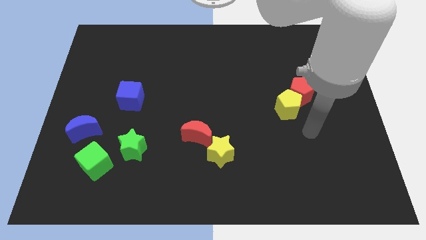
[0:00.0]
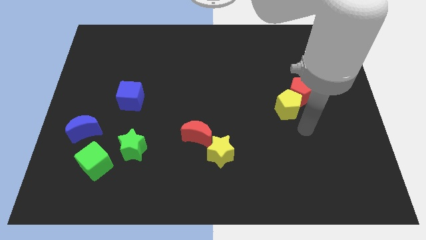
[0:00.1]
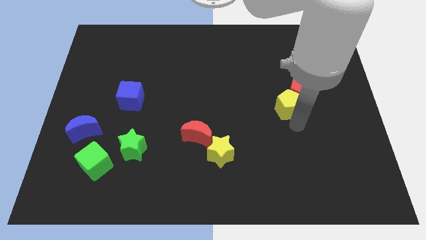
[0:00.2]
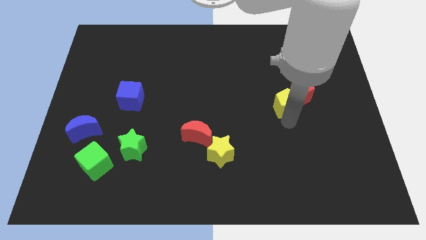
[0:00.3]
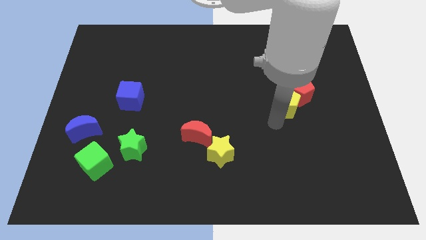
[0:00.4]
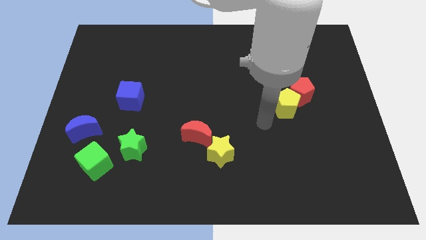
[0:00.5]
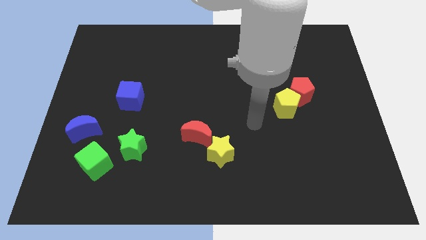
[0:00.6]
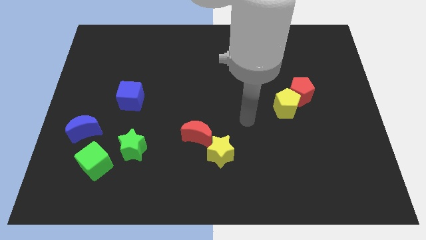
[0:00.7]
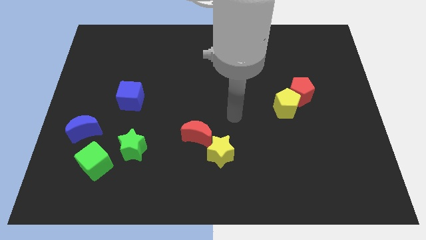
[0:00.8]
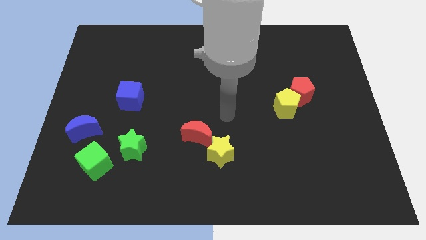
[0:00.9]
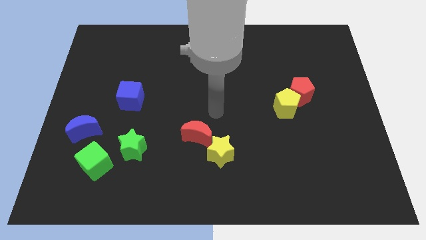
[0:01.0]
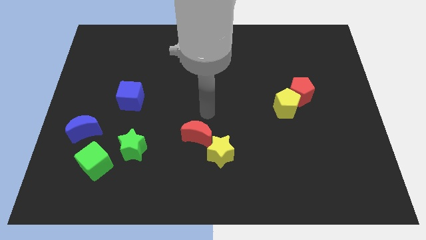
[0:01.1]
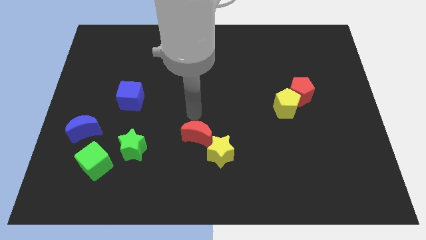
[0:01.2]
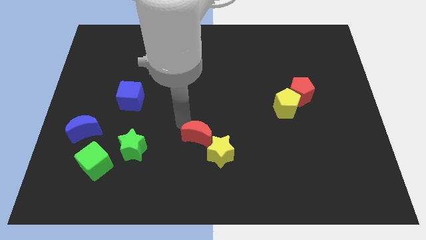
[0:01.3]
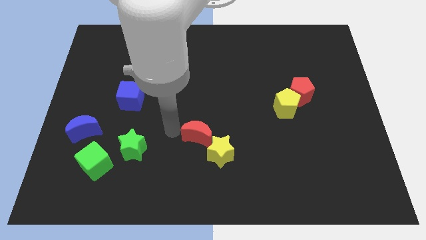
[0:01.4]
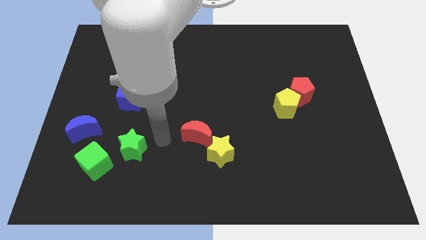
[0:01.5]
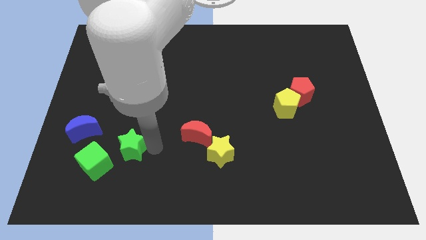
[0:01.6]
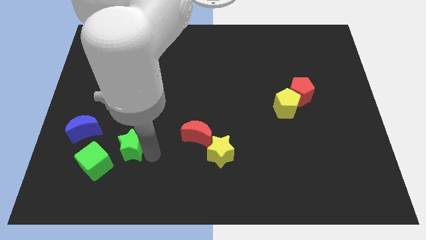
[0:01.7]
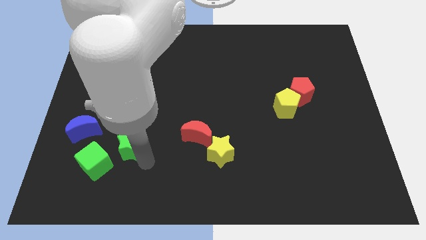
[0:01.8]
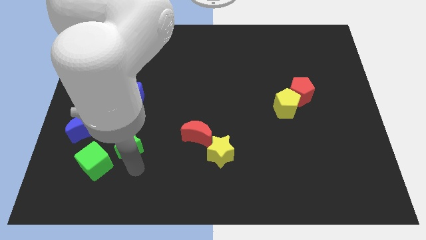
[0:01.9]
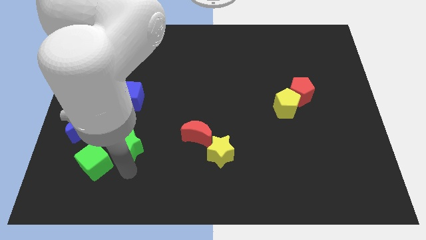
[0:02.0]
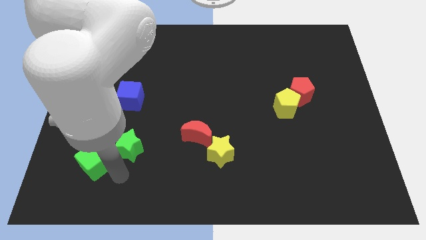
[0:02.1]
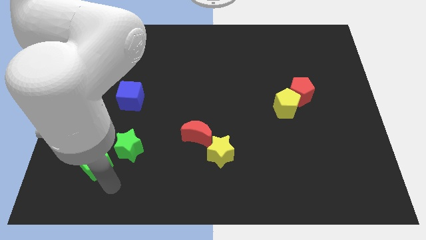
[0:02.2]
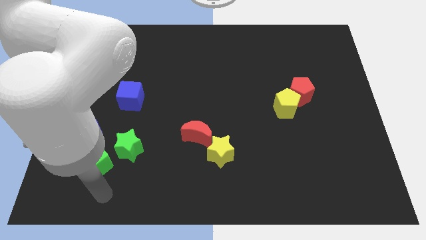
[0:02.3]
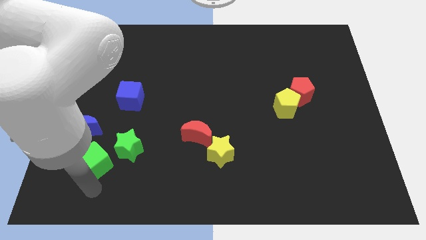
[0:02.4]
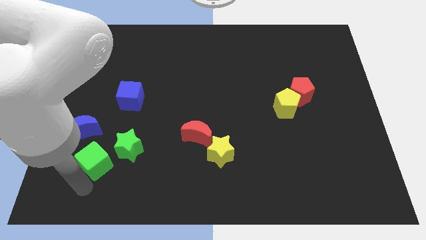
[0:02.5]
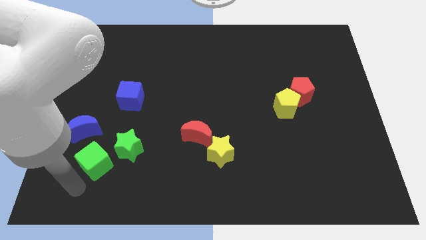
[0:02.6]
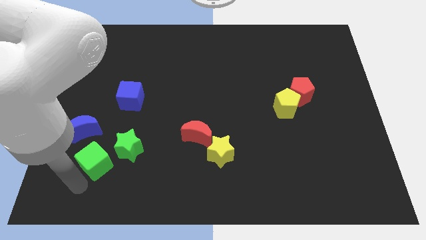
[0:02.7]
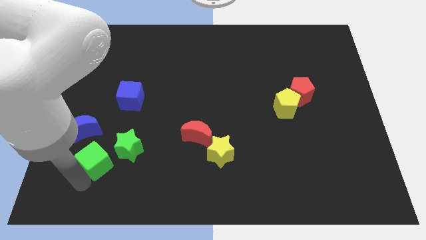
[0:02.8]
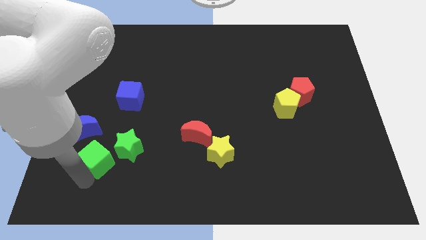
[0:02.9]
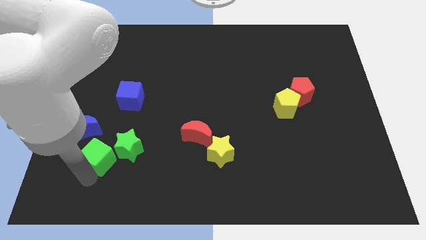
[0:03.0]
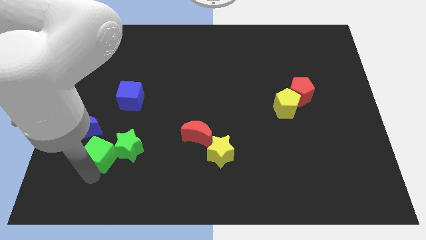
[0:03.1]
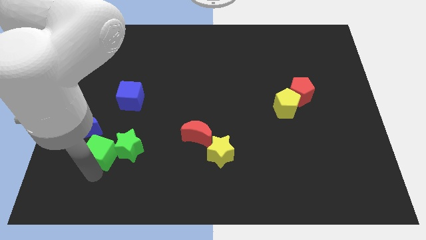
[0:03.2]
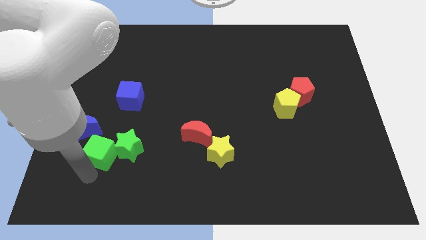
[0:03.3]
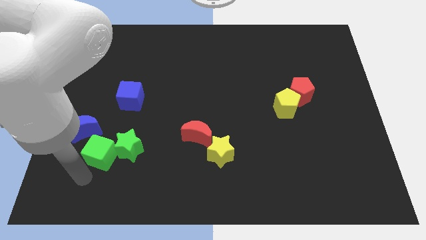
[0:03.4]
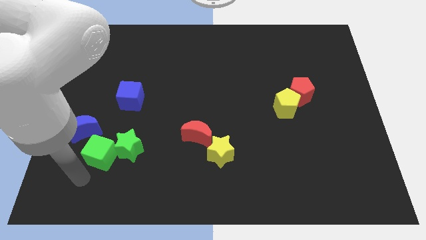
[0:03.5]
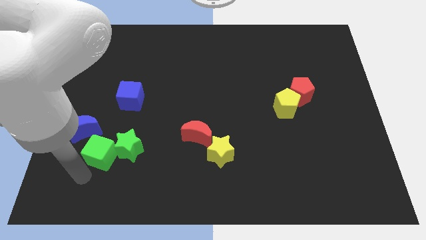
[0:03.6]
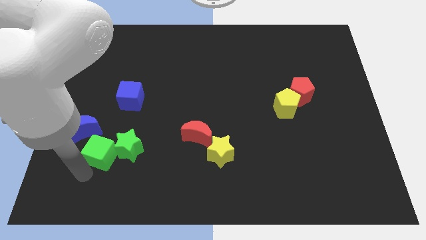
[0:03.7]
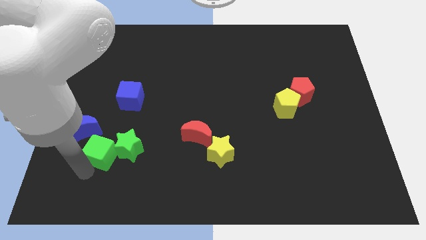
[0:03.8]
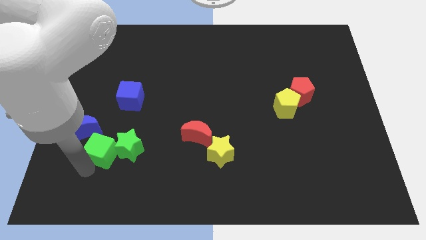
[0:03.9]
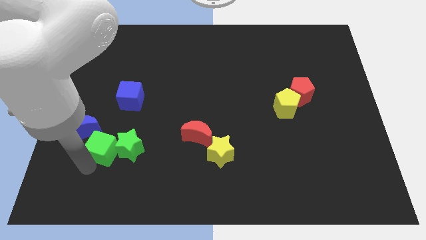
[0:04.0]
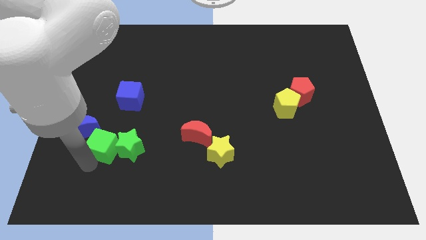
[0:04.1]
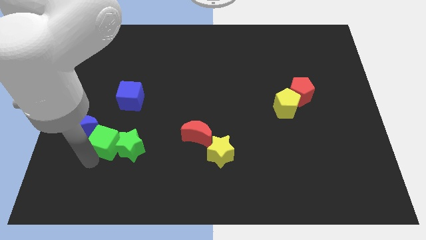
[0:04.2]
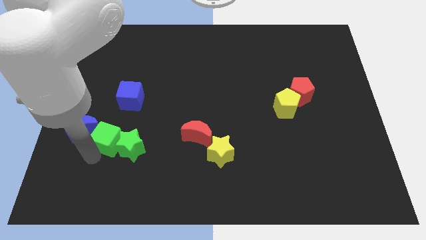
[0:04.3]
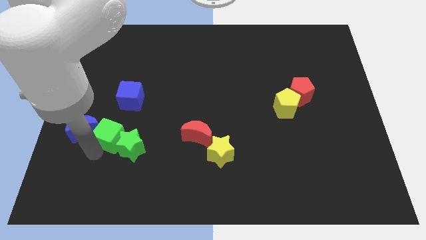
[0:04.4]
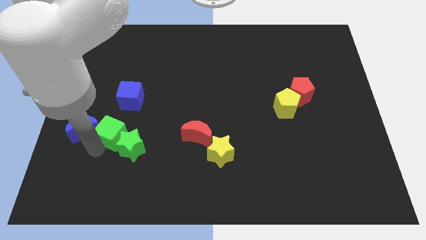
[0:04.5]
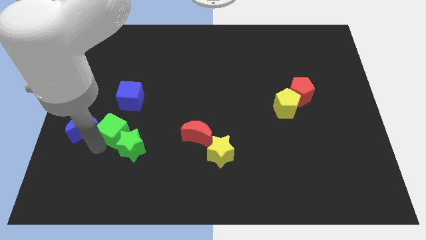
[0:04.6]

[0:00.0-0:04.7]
push the green cube to the top side of the green star

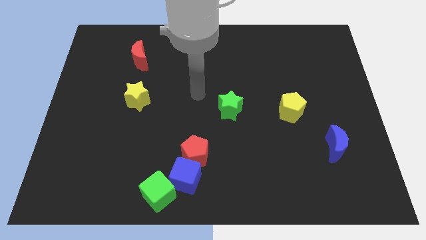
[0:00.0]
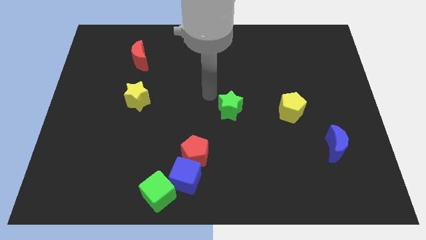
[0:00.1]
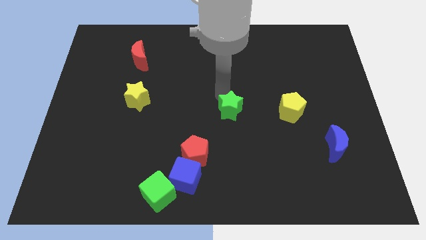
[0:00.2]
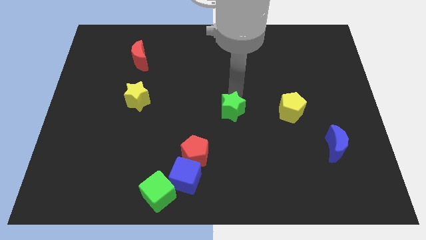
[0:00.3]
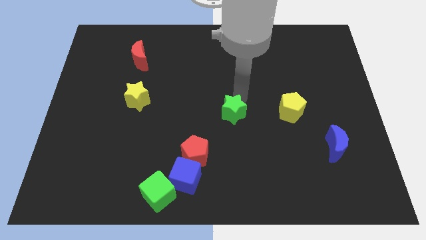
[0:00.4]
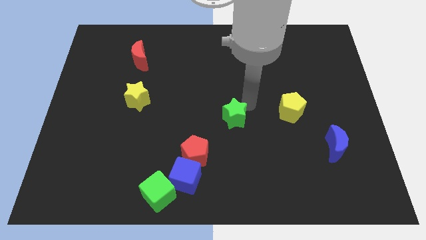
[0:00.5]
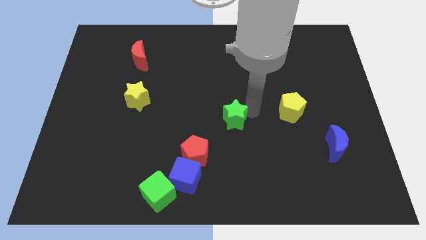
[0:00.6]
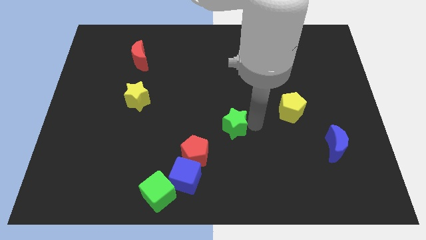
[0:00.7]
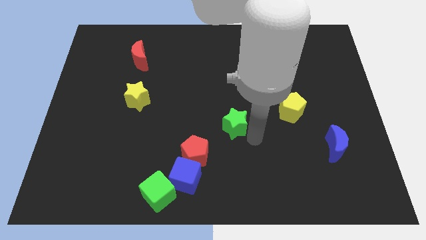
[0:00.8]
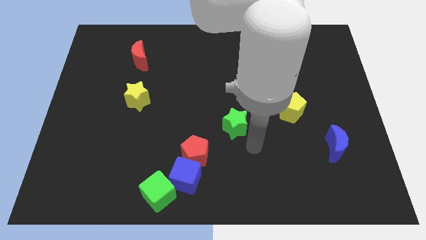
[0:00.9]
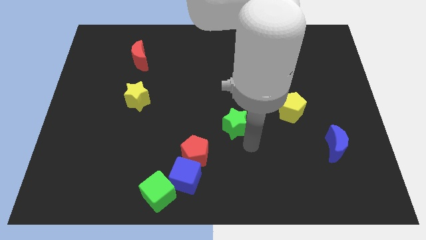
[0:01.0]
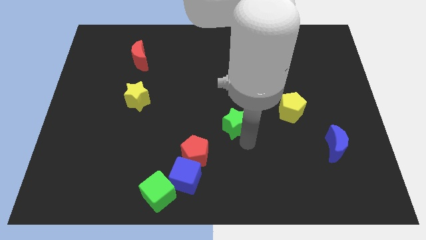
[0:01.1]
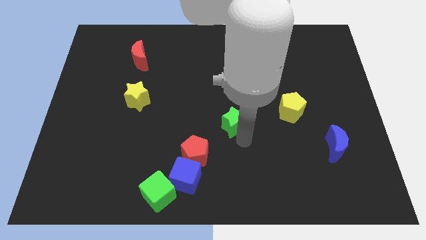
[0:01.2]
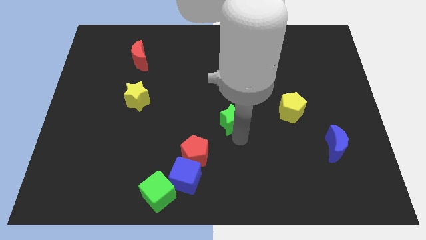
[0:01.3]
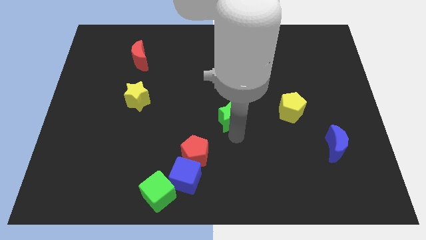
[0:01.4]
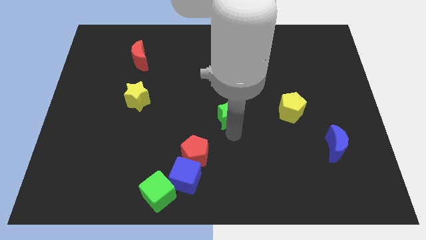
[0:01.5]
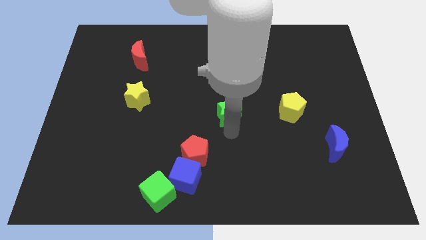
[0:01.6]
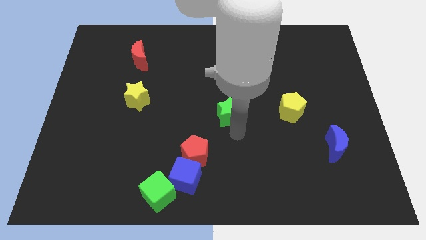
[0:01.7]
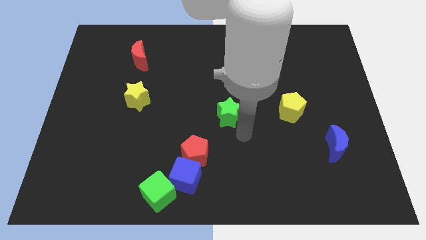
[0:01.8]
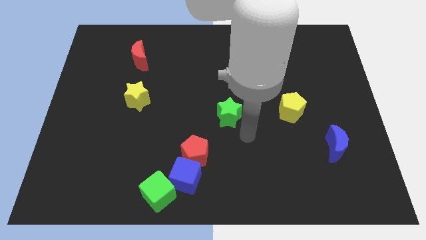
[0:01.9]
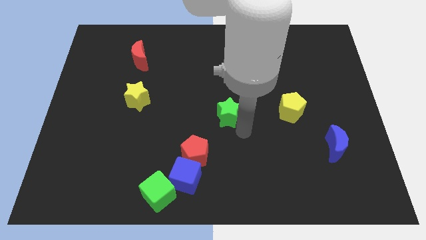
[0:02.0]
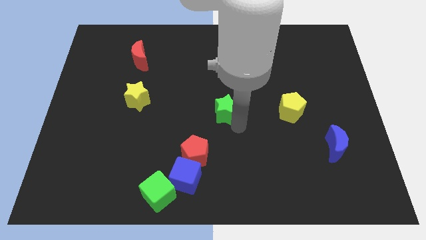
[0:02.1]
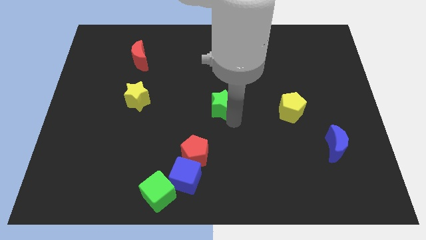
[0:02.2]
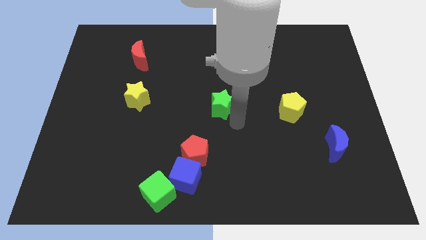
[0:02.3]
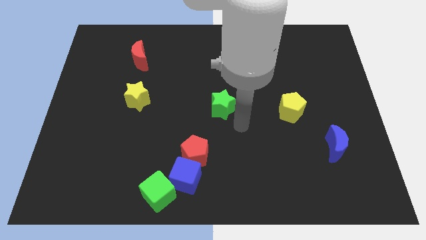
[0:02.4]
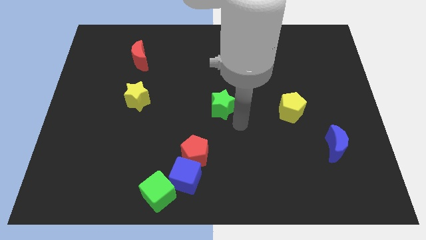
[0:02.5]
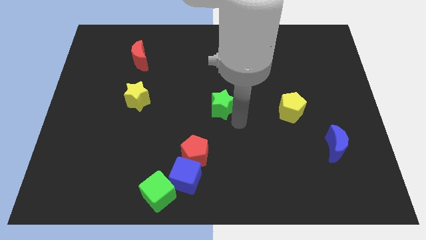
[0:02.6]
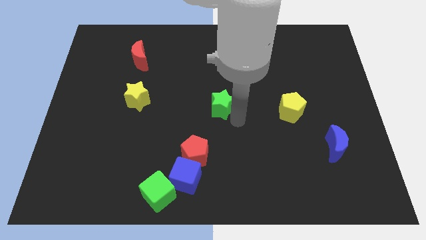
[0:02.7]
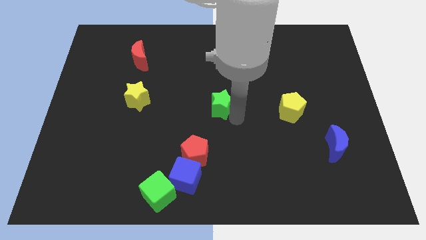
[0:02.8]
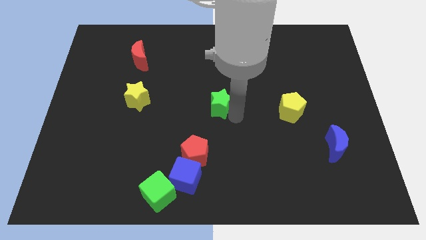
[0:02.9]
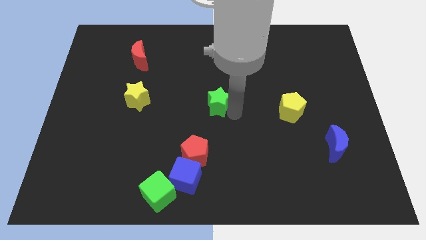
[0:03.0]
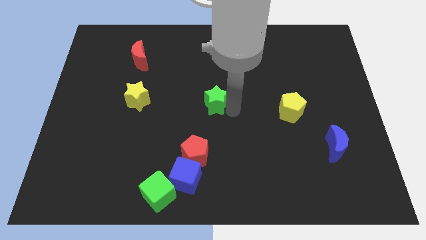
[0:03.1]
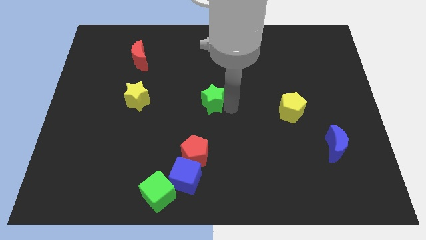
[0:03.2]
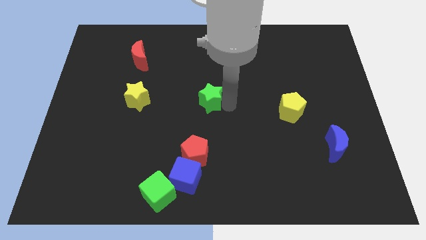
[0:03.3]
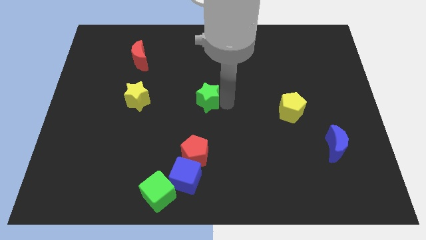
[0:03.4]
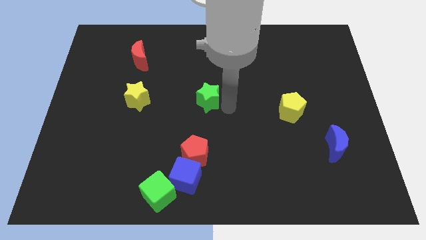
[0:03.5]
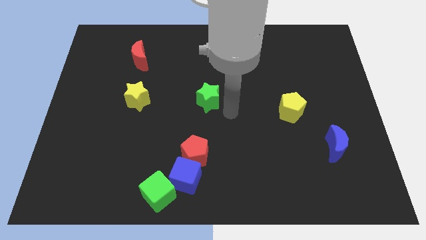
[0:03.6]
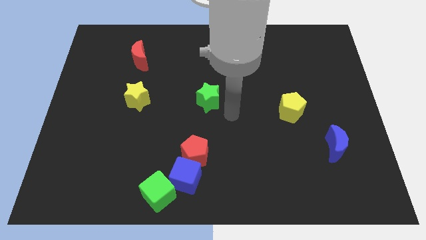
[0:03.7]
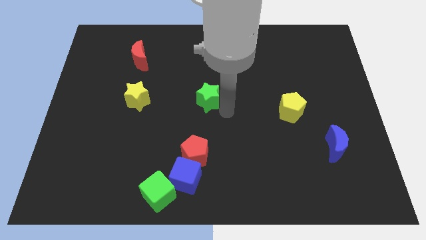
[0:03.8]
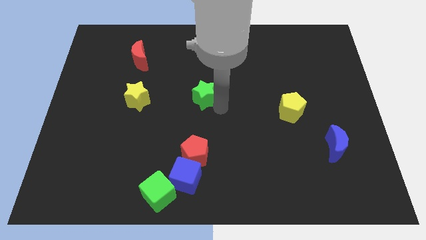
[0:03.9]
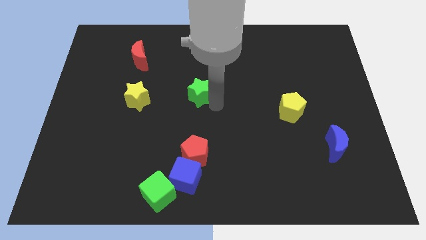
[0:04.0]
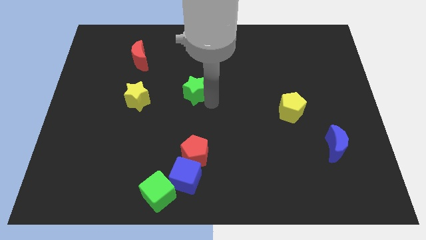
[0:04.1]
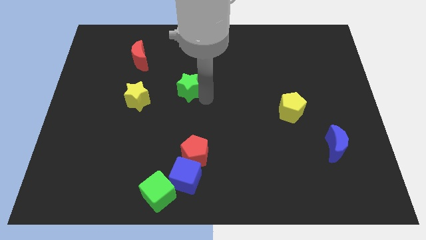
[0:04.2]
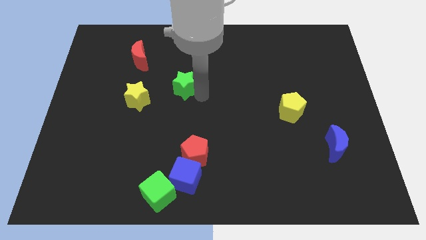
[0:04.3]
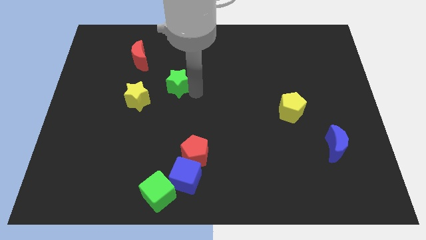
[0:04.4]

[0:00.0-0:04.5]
slide the green star to the top right side of the yellow star
